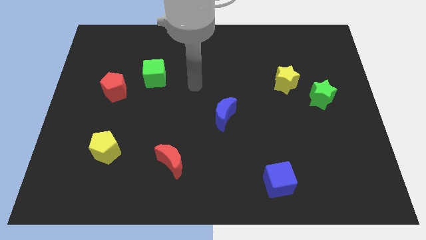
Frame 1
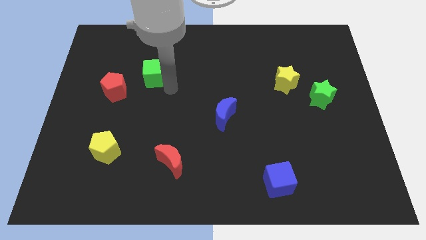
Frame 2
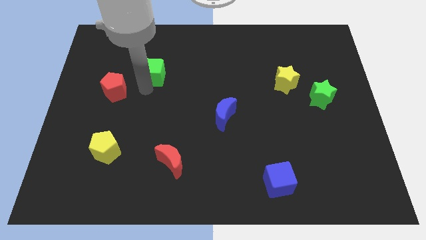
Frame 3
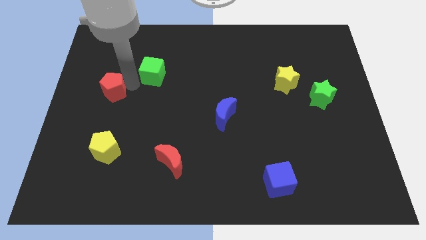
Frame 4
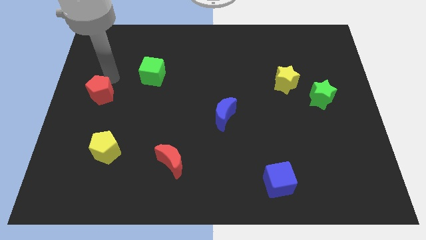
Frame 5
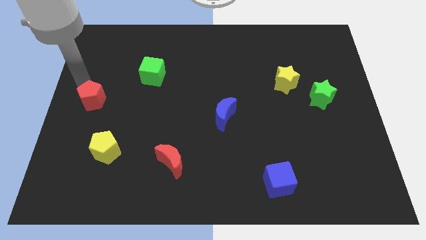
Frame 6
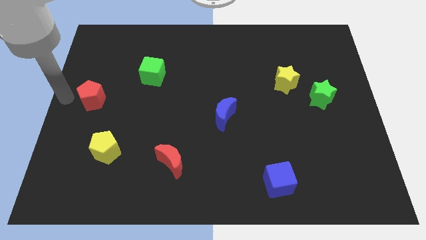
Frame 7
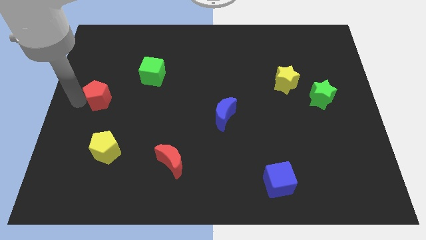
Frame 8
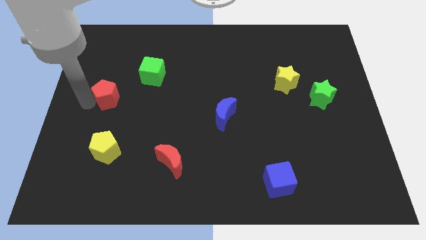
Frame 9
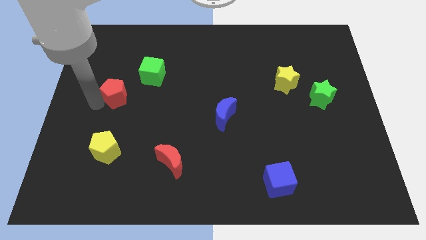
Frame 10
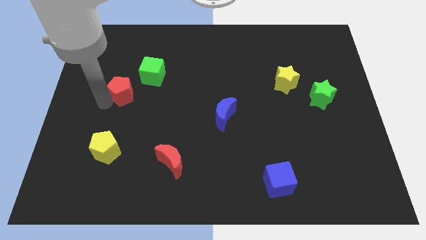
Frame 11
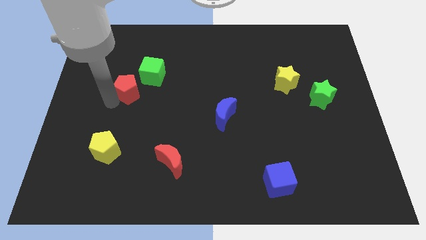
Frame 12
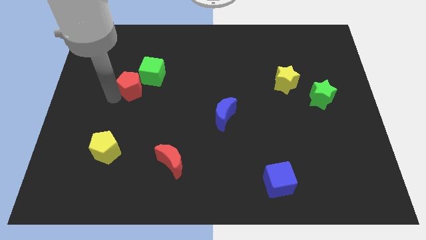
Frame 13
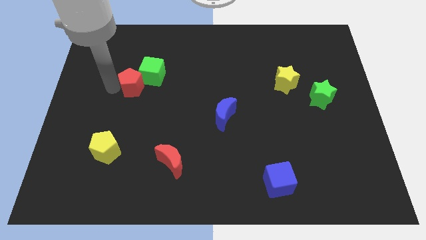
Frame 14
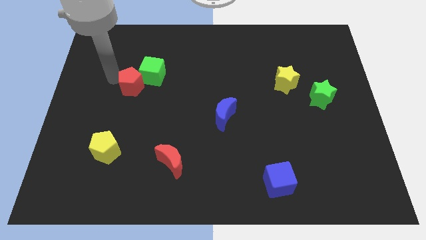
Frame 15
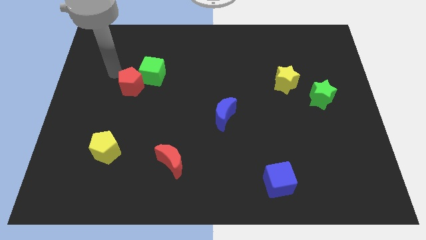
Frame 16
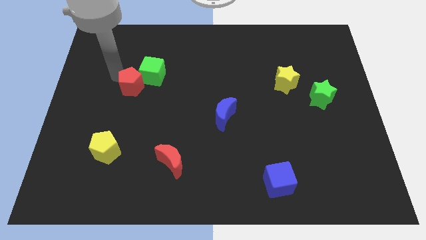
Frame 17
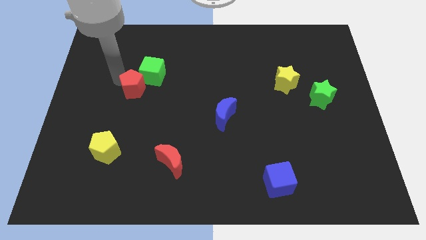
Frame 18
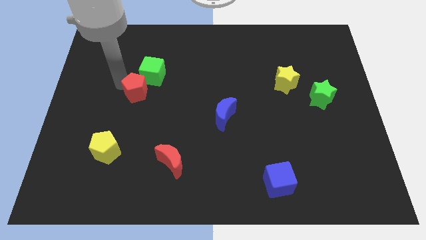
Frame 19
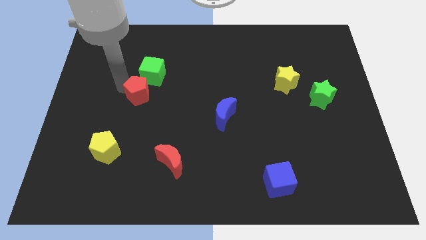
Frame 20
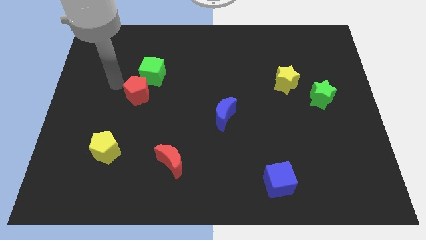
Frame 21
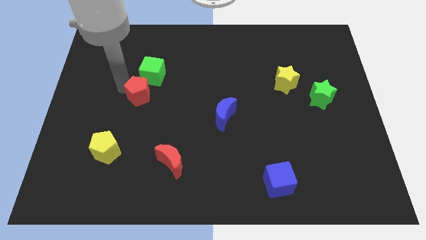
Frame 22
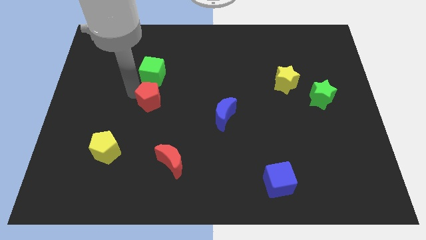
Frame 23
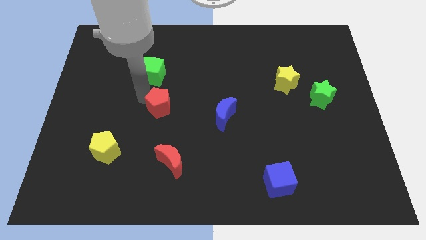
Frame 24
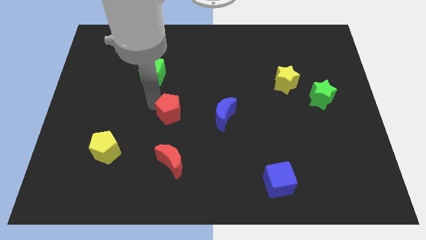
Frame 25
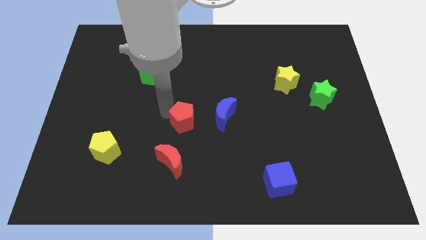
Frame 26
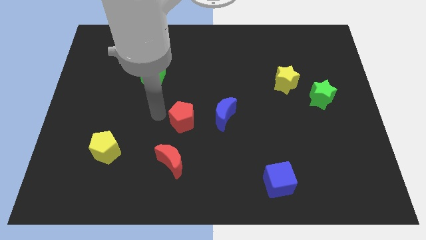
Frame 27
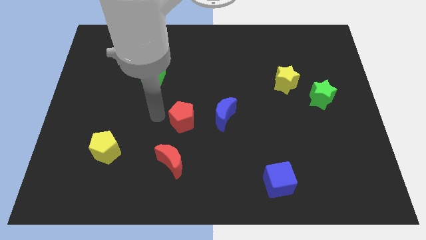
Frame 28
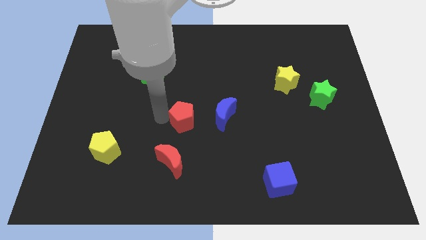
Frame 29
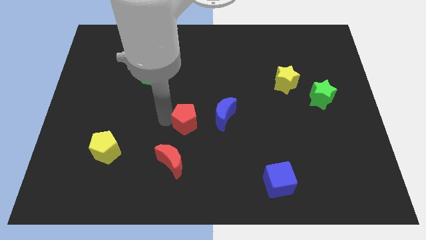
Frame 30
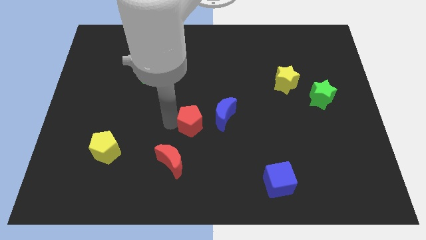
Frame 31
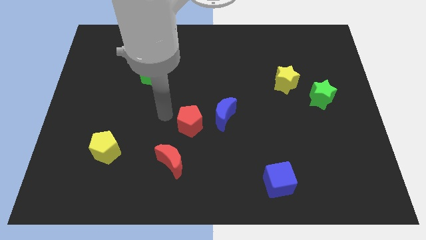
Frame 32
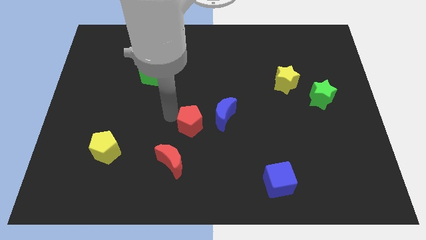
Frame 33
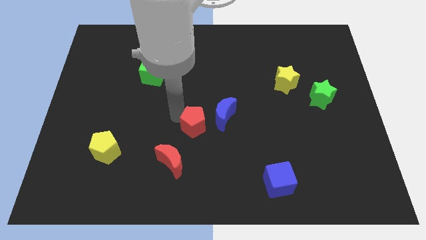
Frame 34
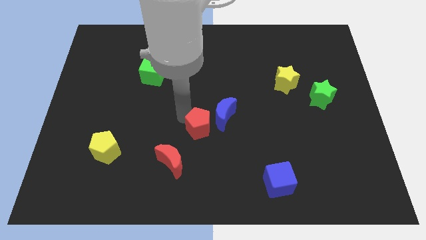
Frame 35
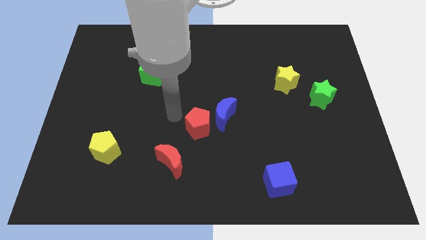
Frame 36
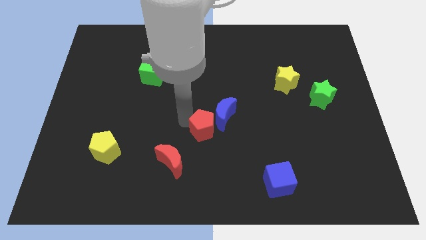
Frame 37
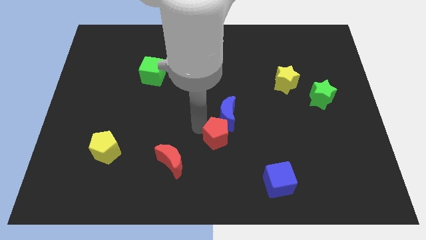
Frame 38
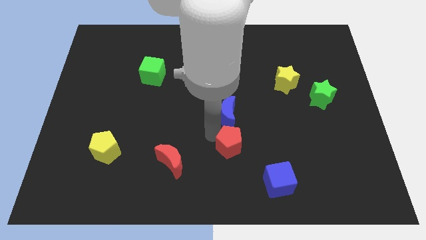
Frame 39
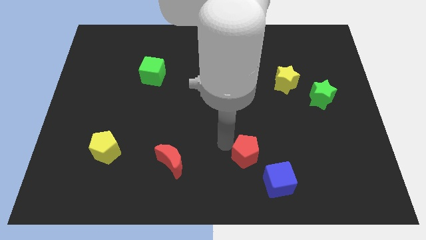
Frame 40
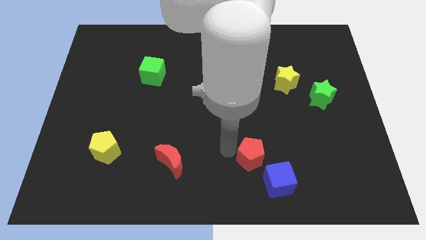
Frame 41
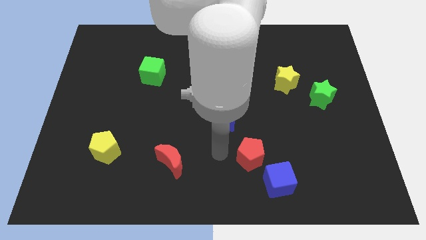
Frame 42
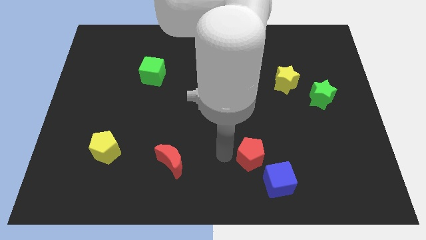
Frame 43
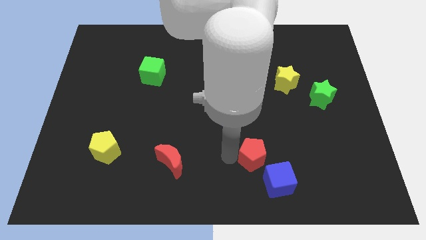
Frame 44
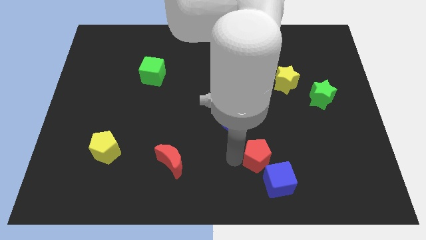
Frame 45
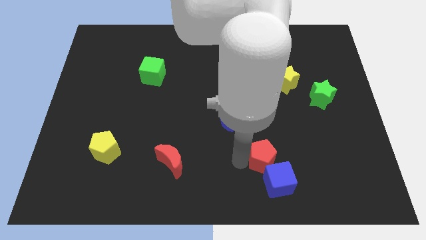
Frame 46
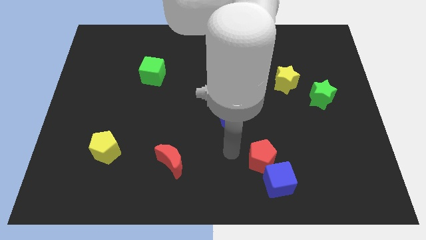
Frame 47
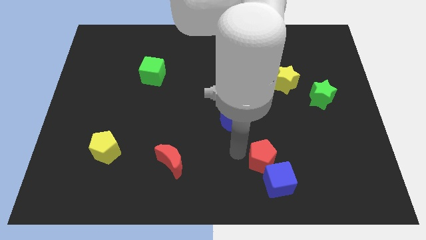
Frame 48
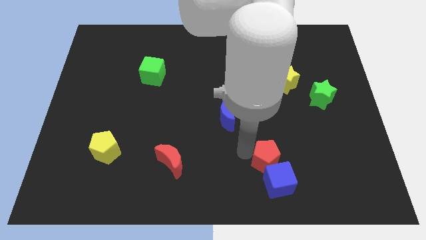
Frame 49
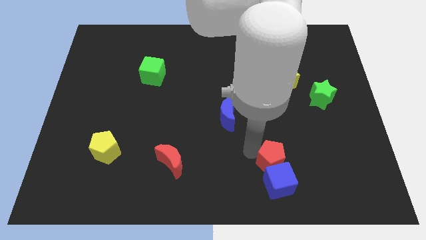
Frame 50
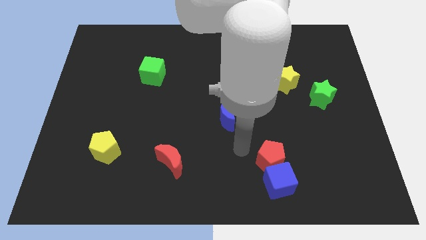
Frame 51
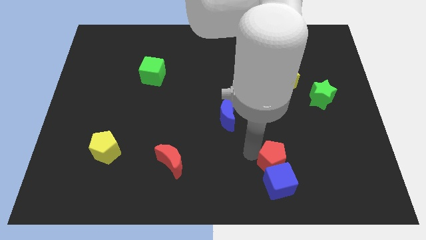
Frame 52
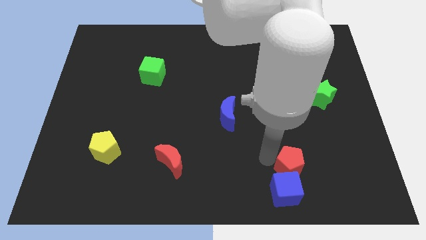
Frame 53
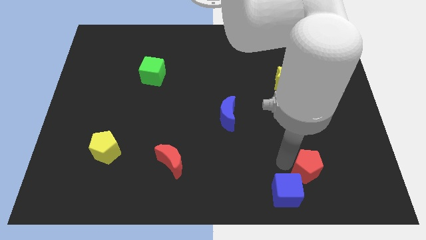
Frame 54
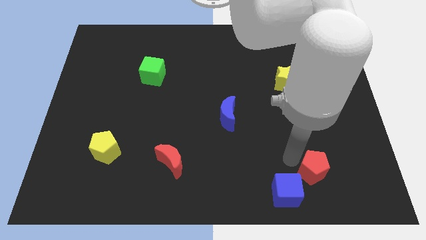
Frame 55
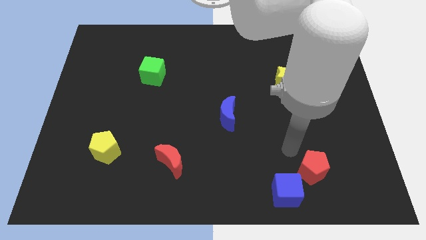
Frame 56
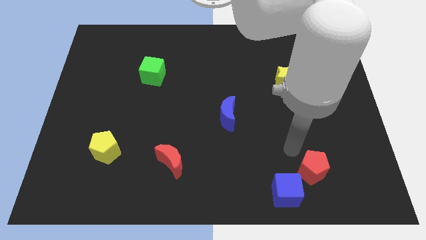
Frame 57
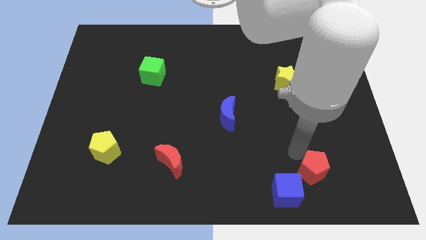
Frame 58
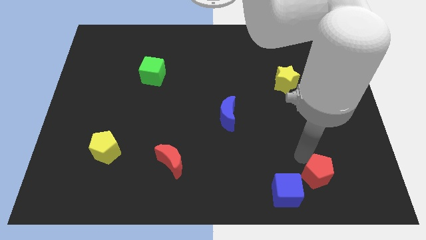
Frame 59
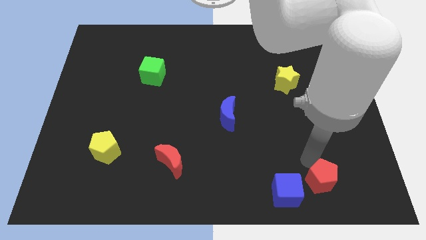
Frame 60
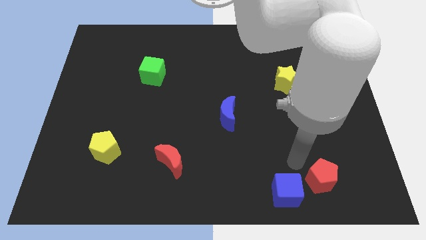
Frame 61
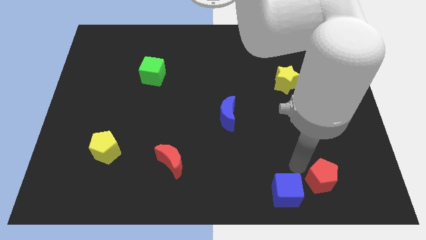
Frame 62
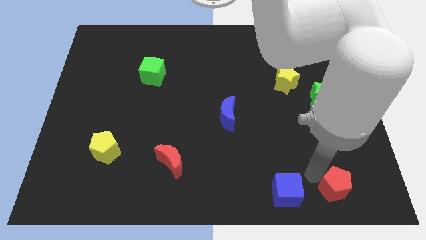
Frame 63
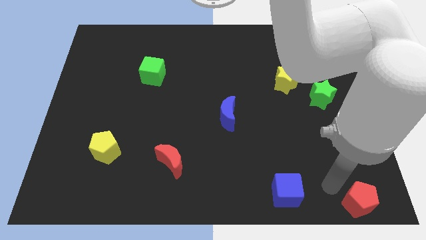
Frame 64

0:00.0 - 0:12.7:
put the red pentagon to the bottom right of the board
